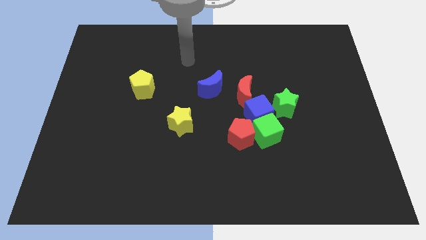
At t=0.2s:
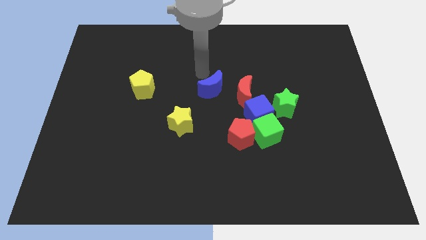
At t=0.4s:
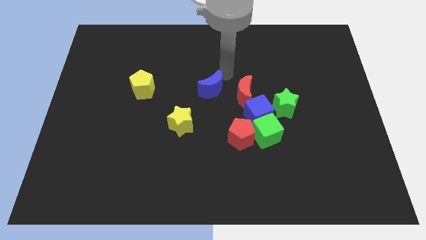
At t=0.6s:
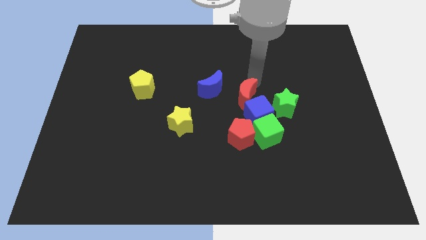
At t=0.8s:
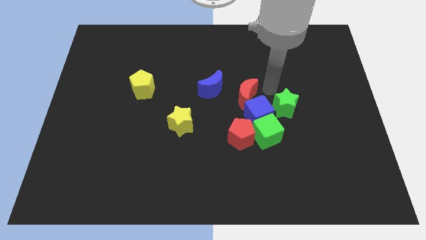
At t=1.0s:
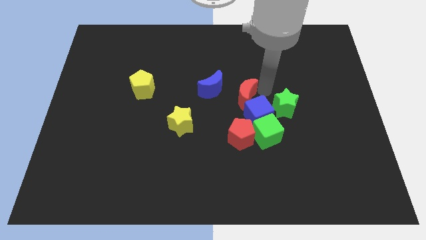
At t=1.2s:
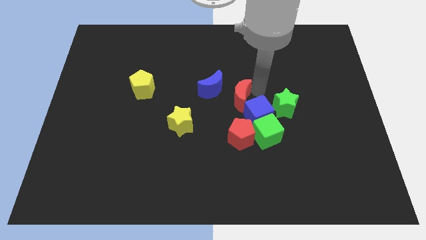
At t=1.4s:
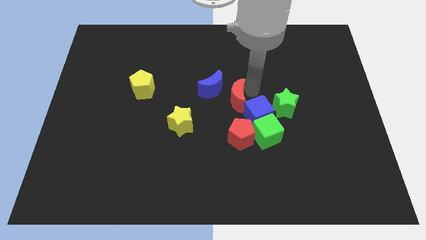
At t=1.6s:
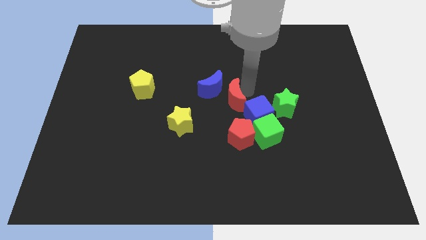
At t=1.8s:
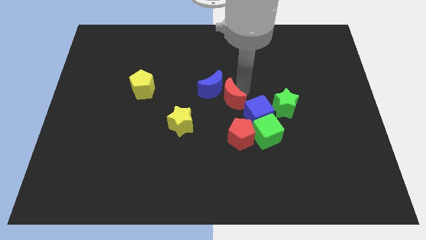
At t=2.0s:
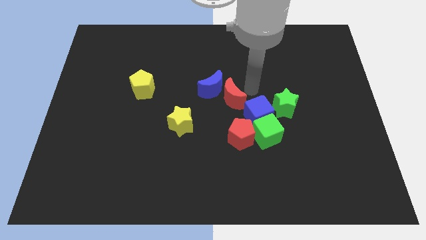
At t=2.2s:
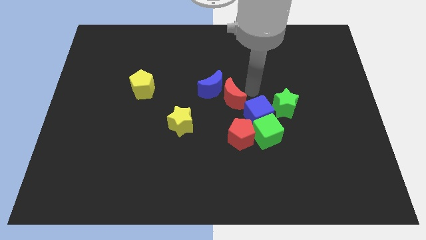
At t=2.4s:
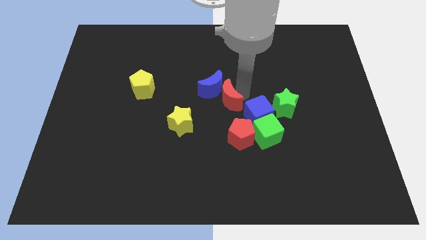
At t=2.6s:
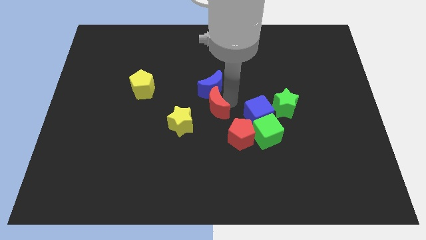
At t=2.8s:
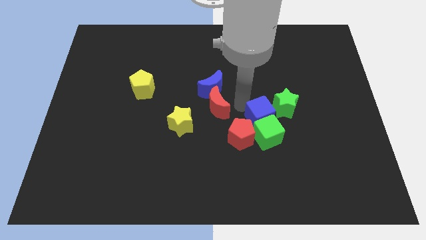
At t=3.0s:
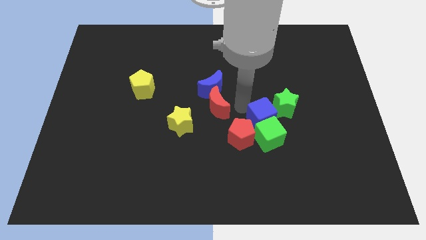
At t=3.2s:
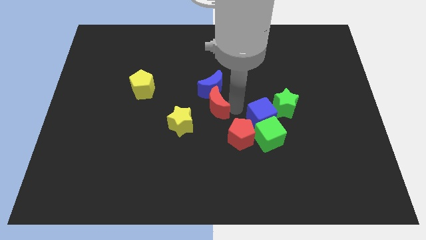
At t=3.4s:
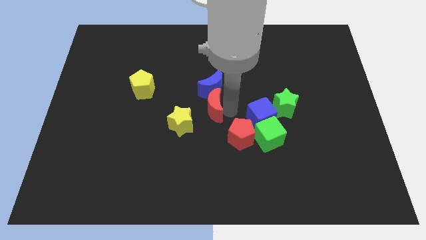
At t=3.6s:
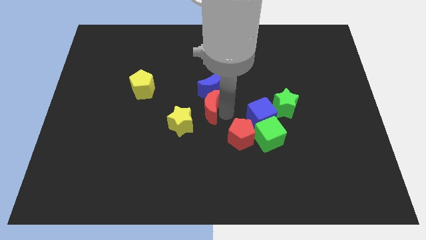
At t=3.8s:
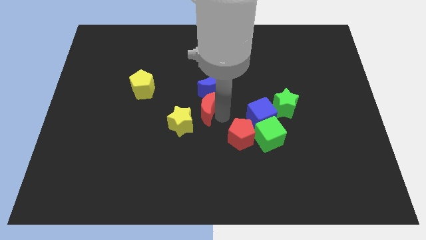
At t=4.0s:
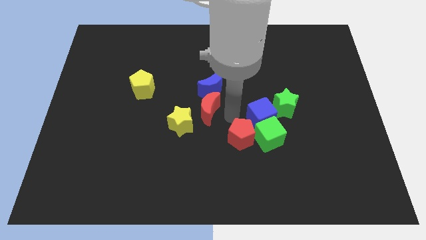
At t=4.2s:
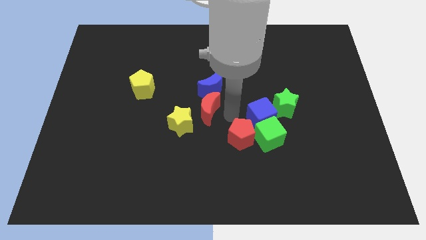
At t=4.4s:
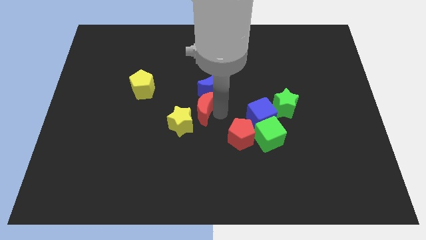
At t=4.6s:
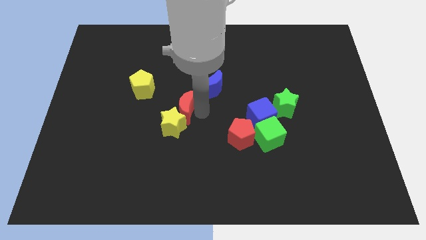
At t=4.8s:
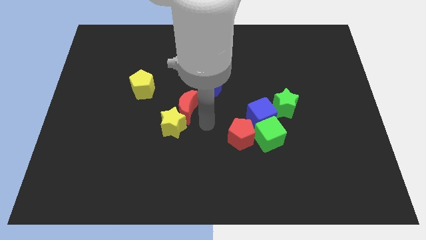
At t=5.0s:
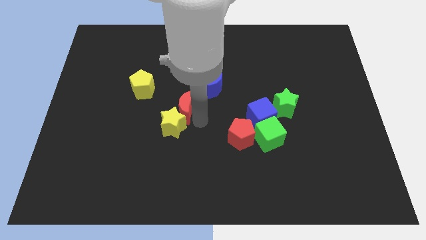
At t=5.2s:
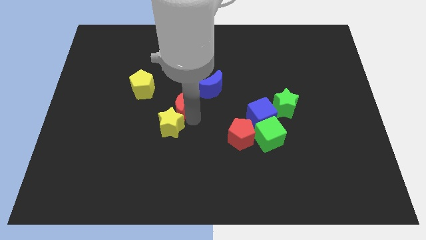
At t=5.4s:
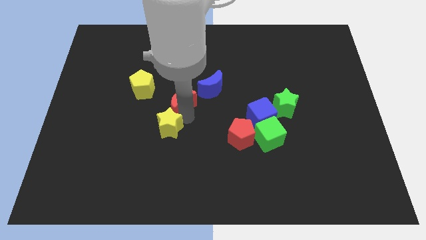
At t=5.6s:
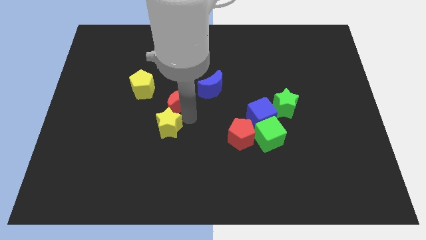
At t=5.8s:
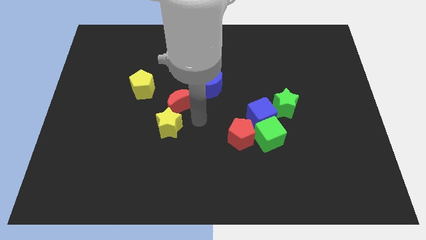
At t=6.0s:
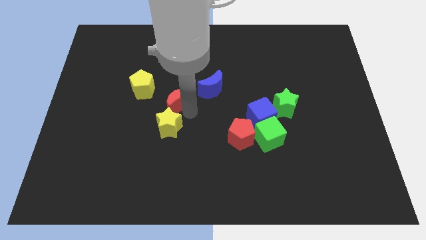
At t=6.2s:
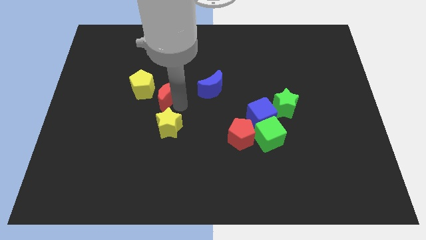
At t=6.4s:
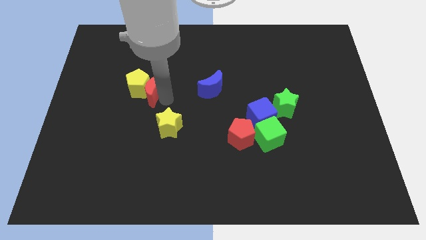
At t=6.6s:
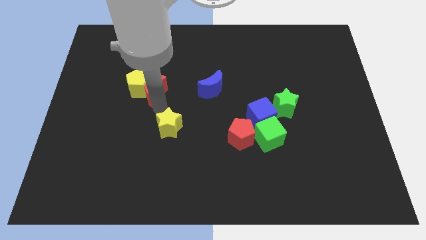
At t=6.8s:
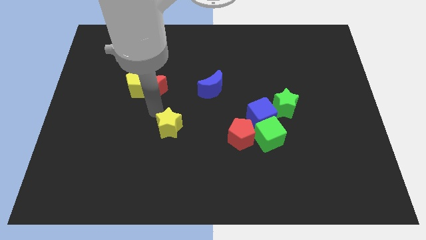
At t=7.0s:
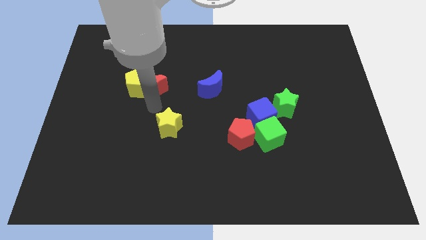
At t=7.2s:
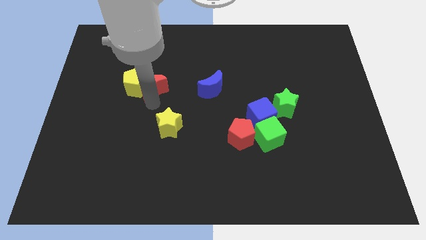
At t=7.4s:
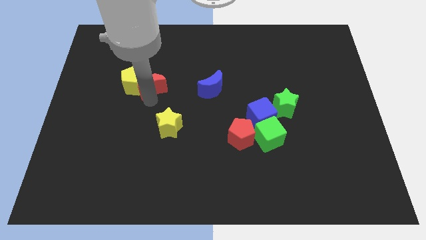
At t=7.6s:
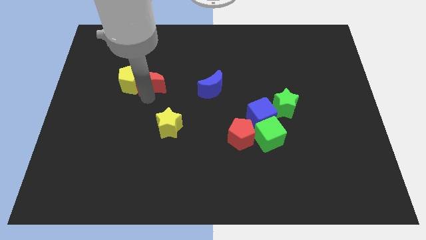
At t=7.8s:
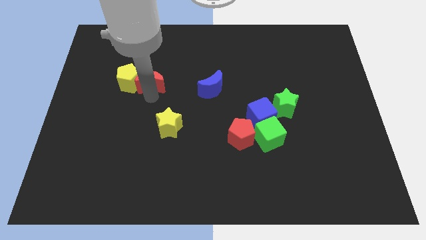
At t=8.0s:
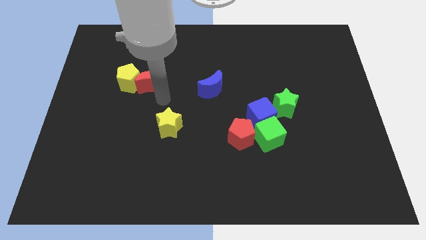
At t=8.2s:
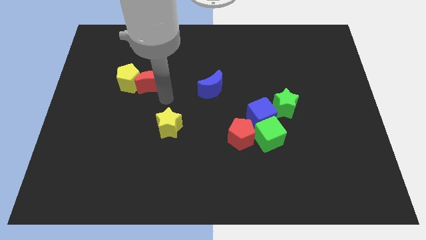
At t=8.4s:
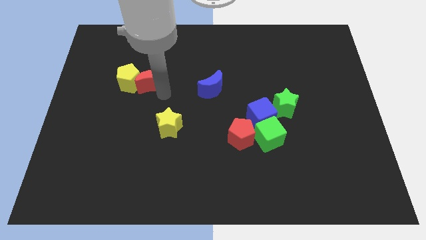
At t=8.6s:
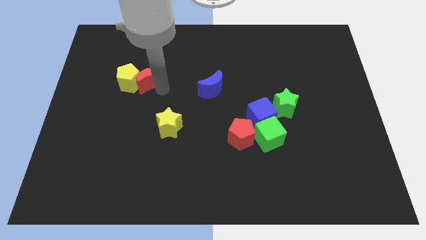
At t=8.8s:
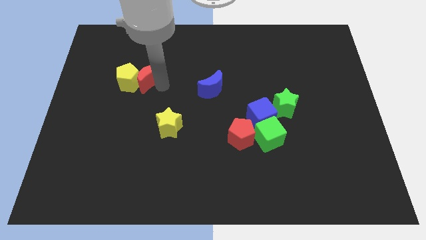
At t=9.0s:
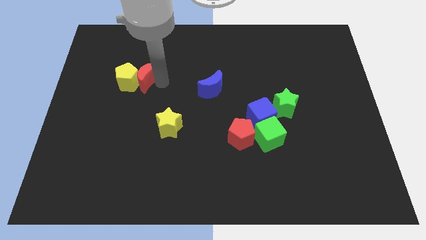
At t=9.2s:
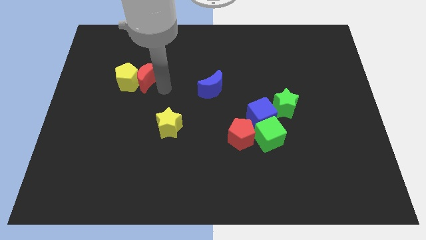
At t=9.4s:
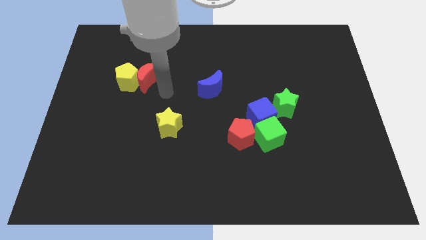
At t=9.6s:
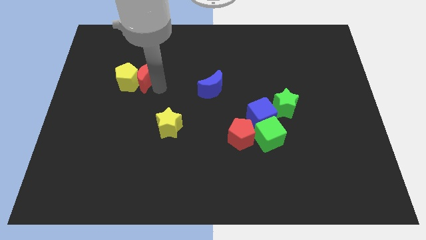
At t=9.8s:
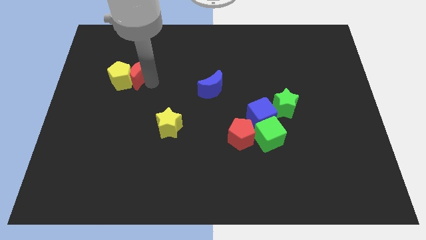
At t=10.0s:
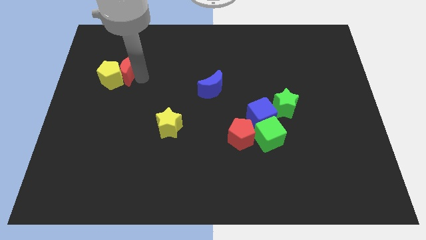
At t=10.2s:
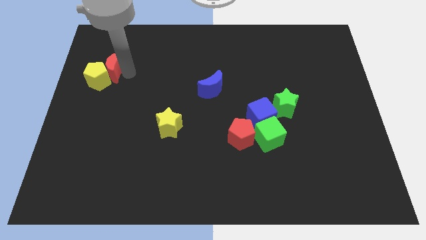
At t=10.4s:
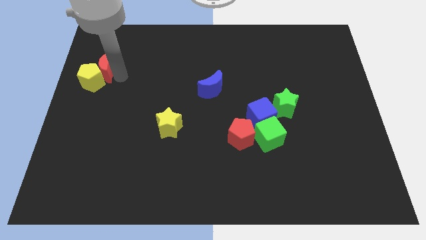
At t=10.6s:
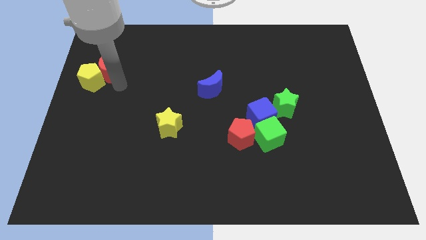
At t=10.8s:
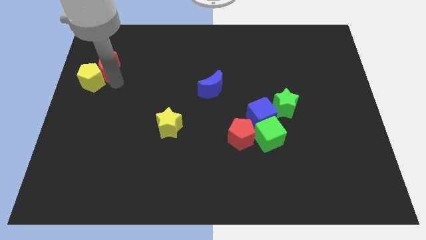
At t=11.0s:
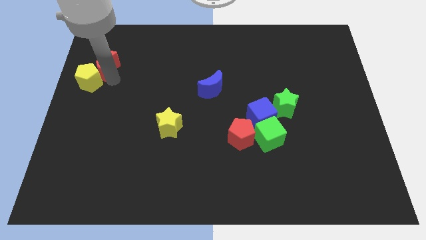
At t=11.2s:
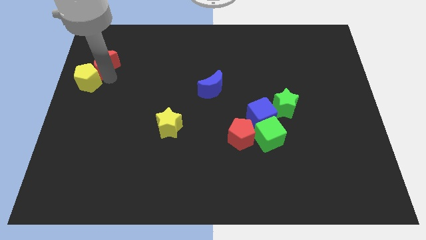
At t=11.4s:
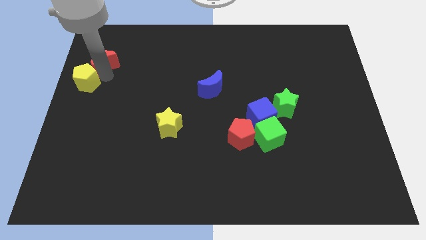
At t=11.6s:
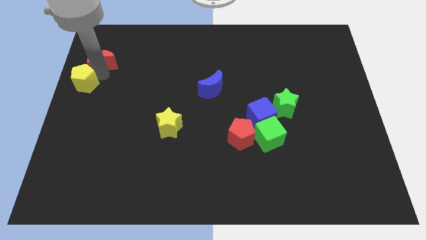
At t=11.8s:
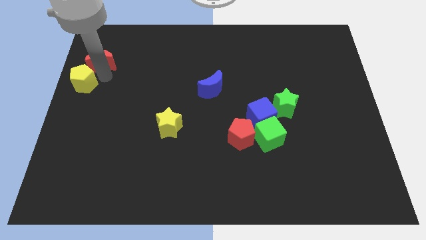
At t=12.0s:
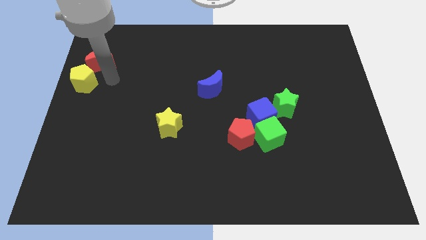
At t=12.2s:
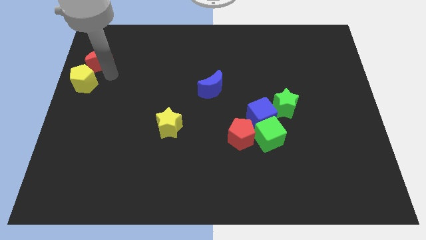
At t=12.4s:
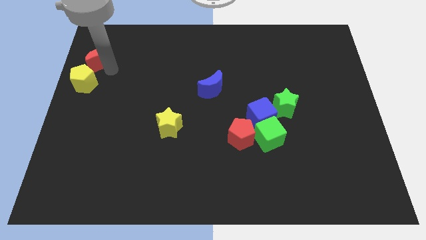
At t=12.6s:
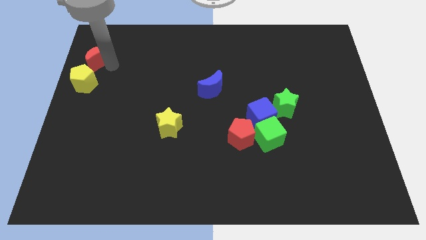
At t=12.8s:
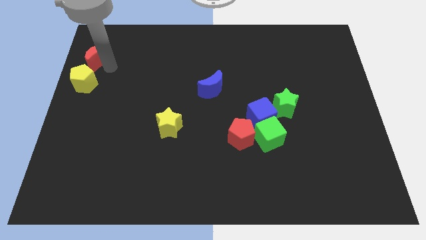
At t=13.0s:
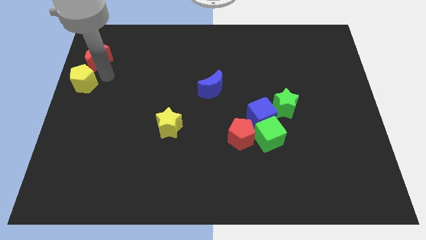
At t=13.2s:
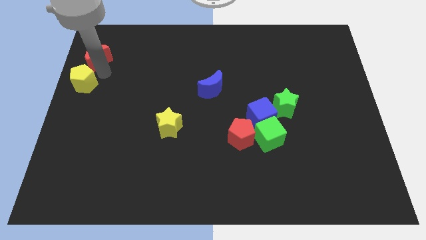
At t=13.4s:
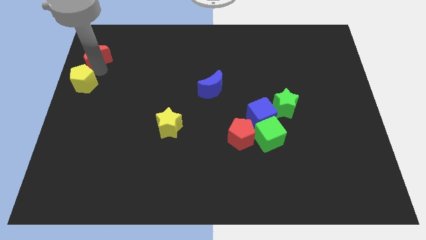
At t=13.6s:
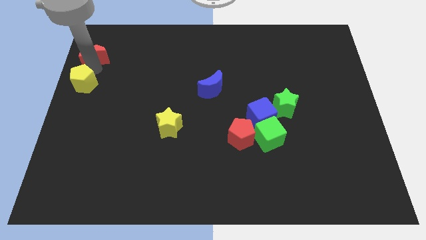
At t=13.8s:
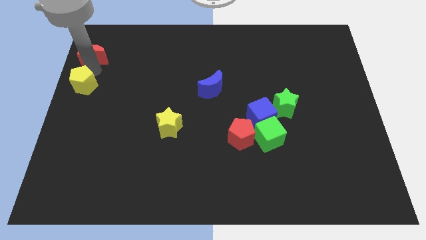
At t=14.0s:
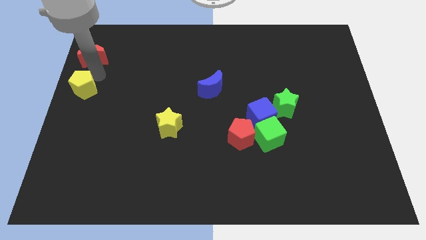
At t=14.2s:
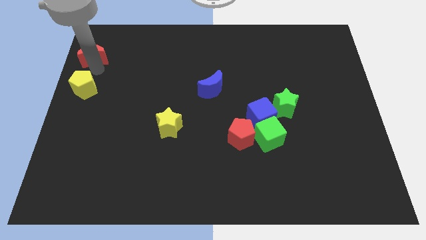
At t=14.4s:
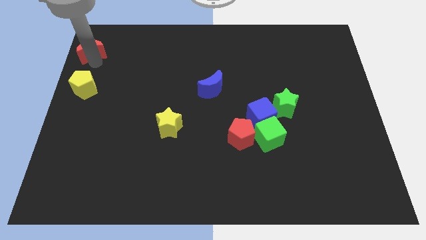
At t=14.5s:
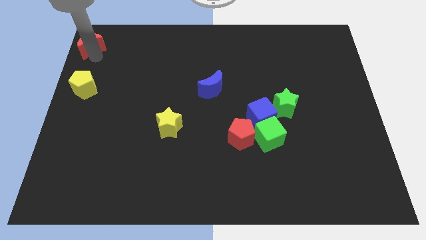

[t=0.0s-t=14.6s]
put the red moon to the top left
